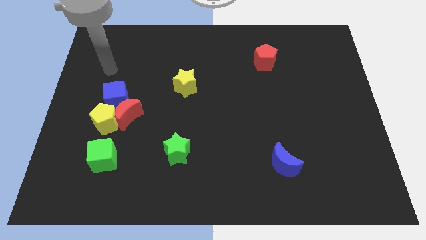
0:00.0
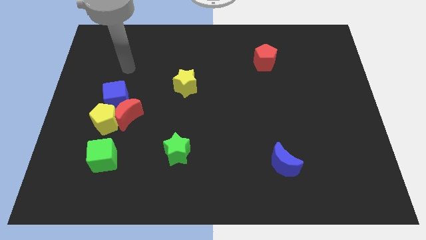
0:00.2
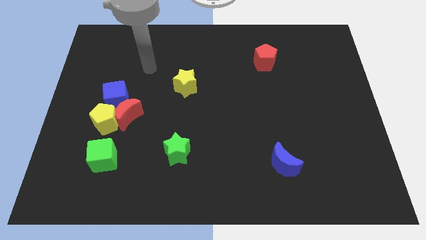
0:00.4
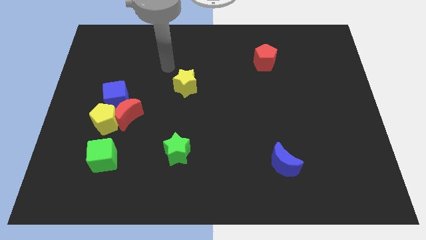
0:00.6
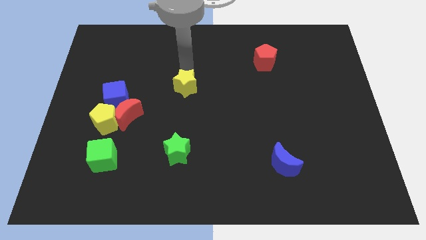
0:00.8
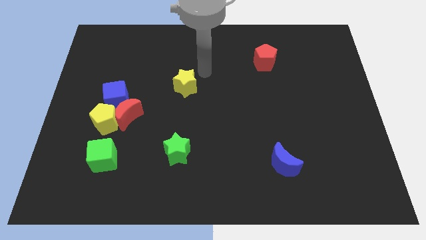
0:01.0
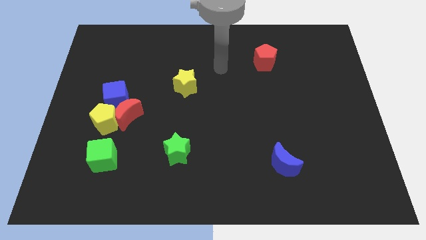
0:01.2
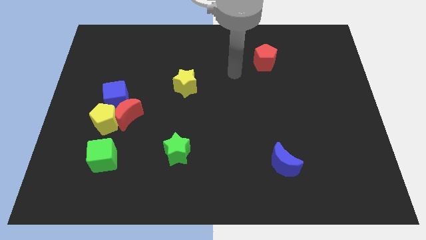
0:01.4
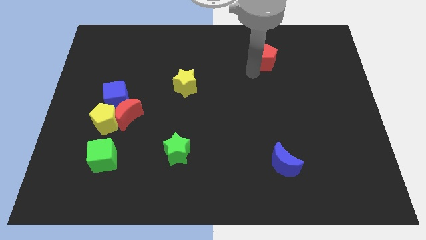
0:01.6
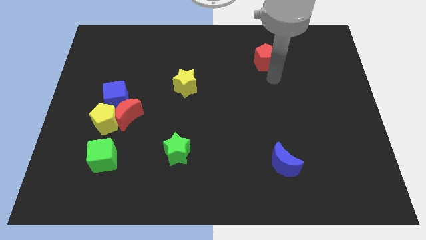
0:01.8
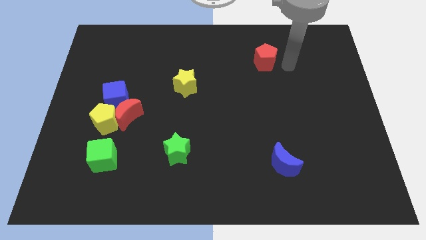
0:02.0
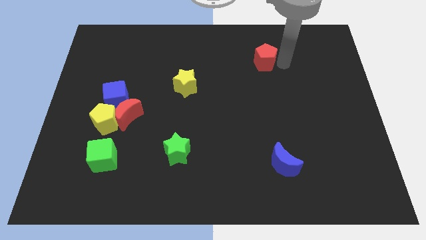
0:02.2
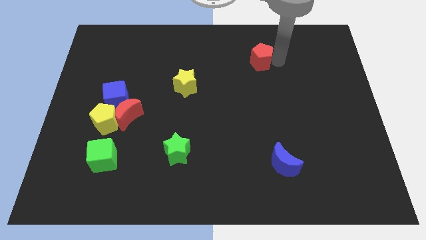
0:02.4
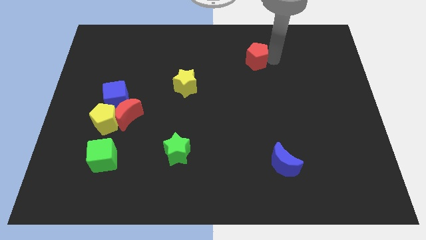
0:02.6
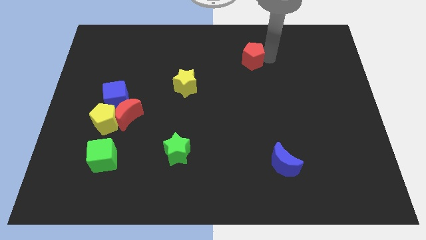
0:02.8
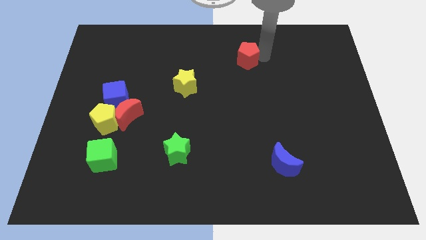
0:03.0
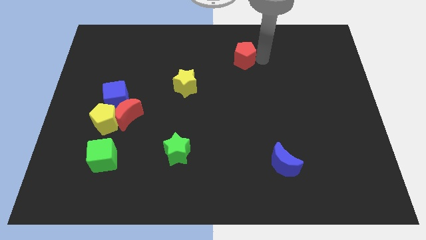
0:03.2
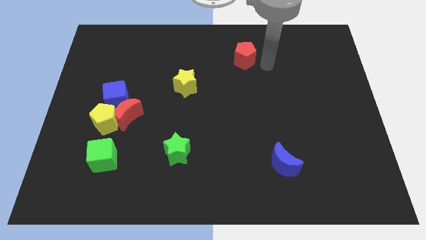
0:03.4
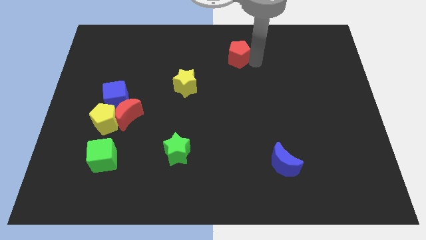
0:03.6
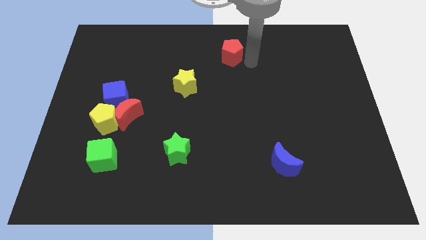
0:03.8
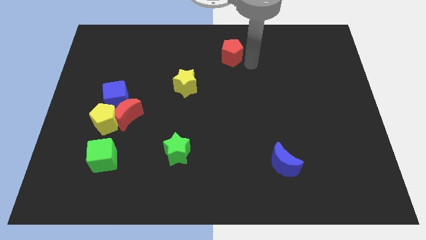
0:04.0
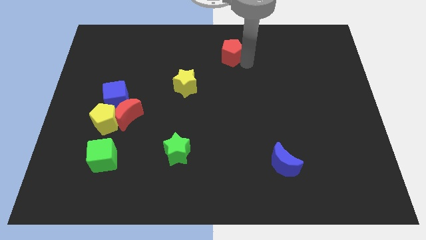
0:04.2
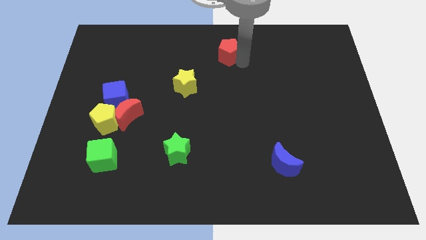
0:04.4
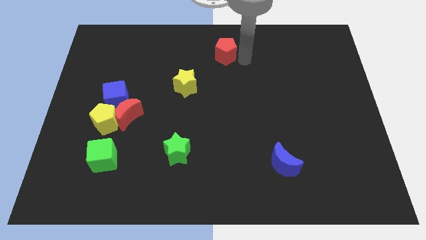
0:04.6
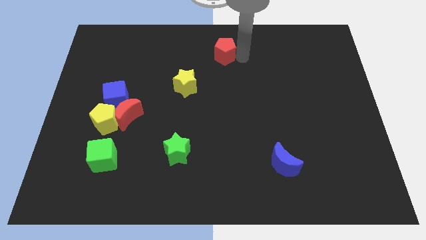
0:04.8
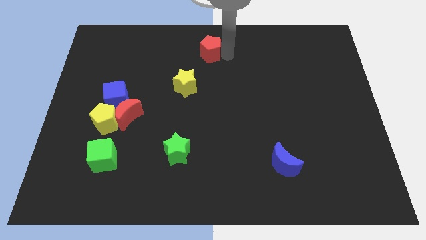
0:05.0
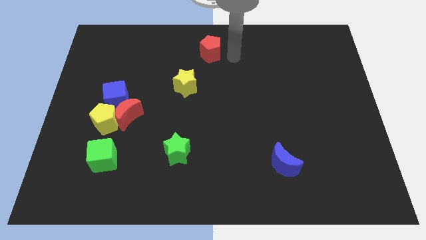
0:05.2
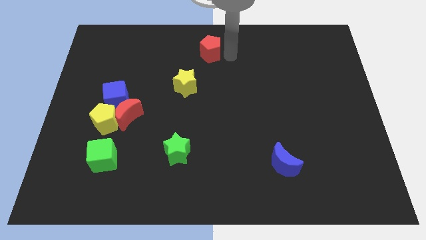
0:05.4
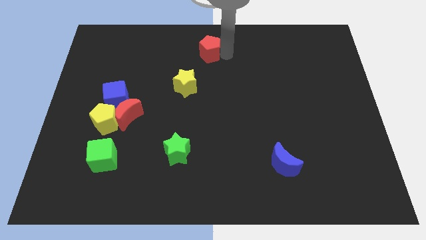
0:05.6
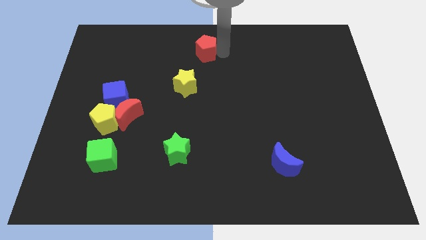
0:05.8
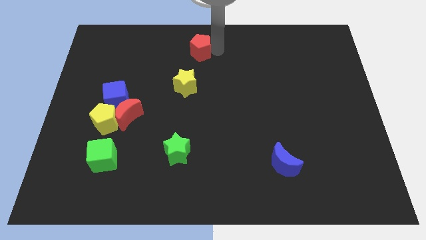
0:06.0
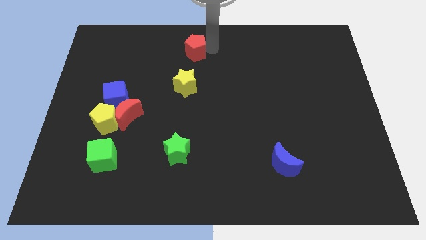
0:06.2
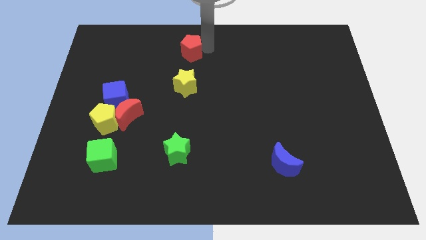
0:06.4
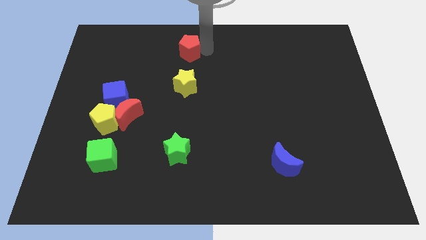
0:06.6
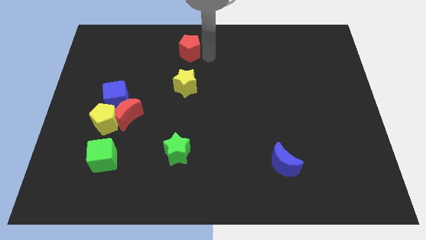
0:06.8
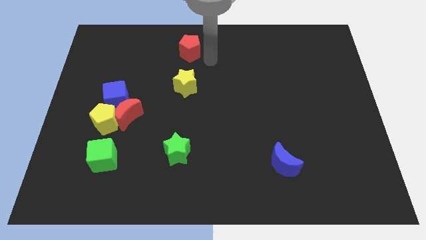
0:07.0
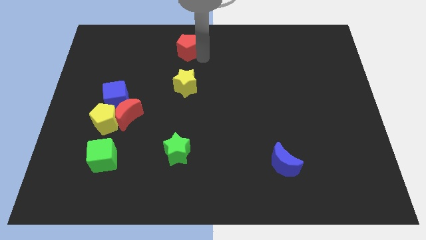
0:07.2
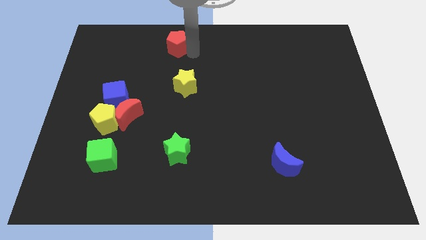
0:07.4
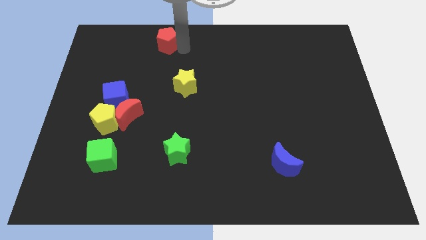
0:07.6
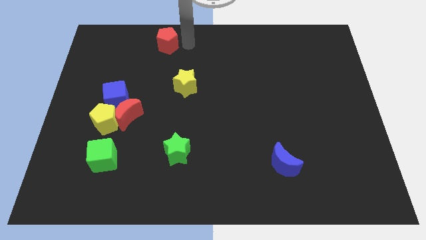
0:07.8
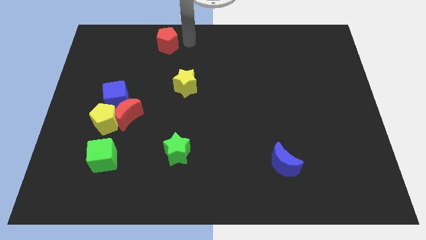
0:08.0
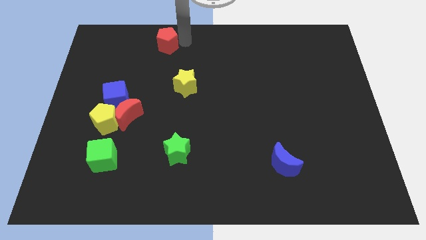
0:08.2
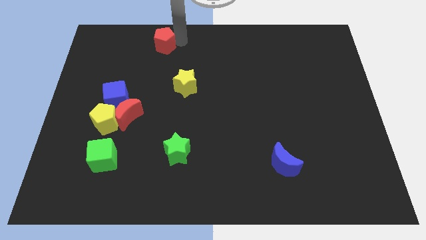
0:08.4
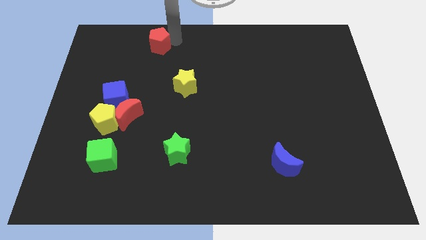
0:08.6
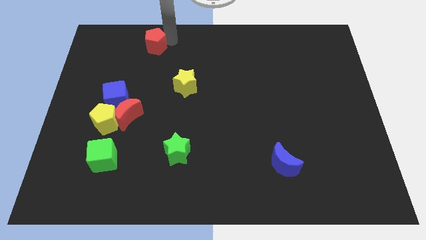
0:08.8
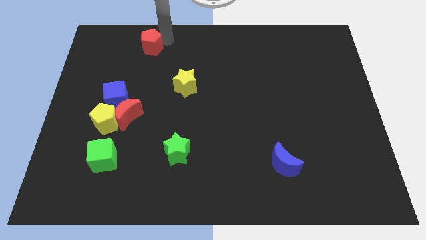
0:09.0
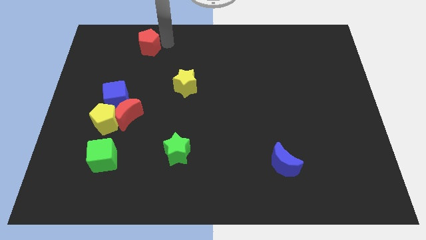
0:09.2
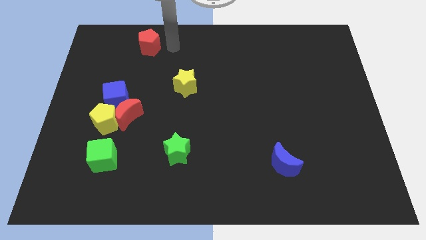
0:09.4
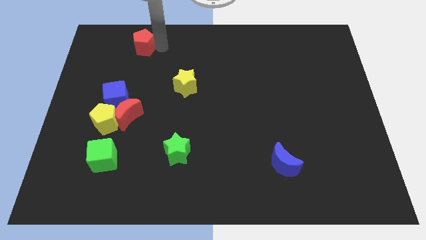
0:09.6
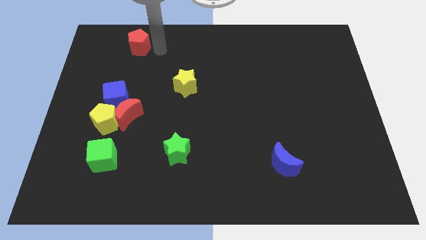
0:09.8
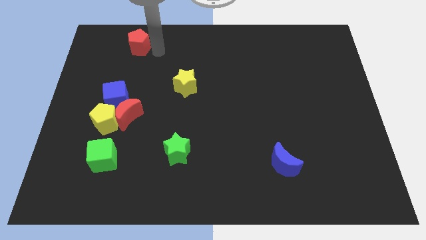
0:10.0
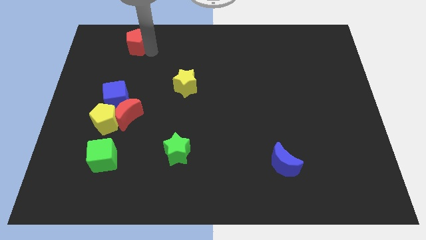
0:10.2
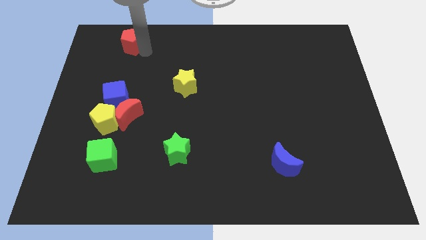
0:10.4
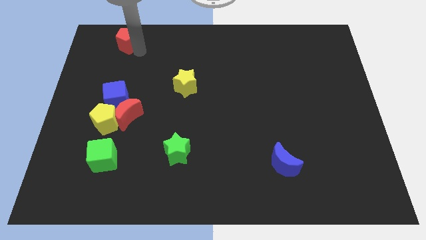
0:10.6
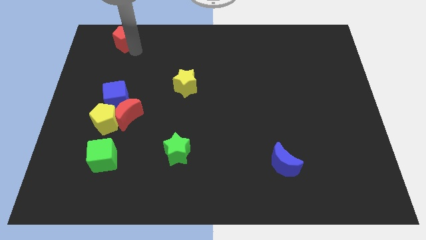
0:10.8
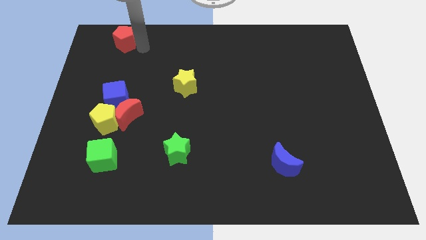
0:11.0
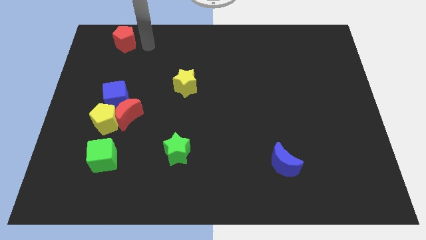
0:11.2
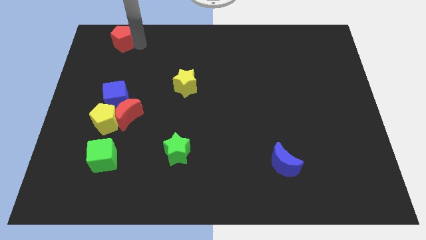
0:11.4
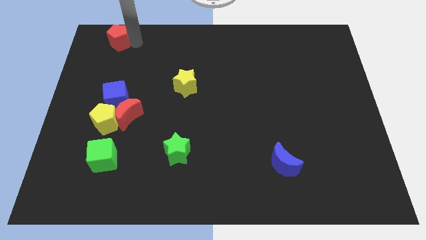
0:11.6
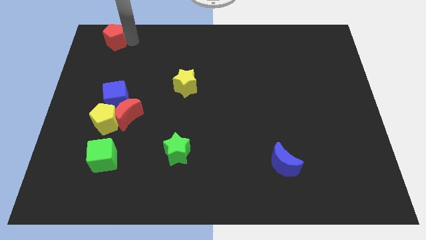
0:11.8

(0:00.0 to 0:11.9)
push the red pentagon to the upper left corner

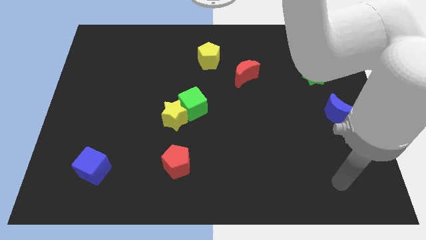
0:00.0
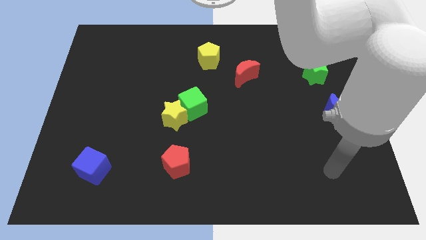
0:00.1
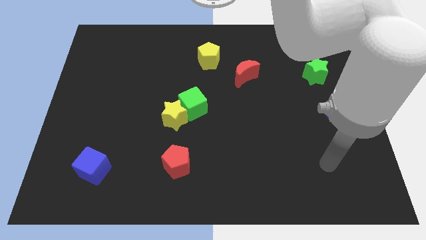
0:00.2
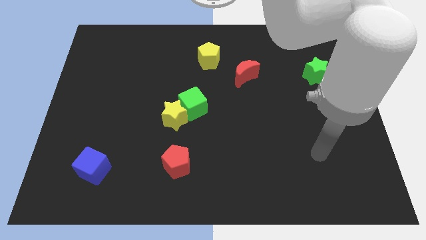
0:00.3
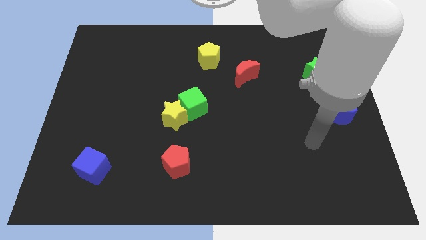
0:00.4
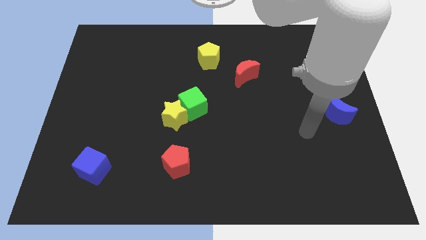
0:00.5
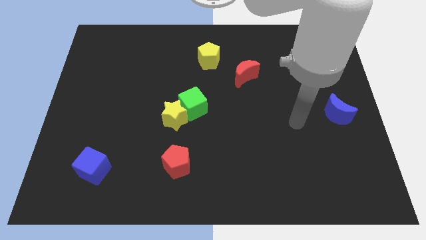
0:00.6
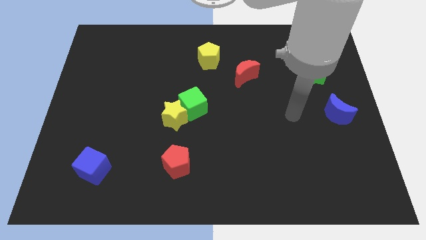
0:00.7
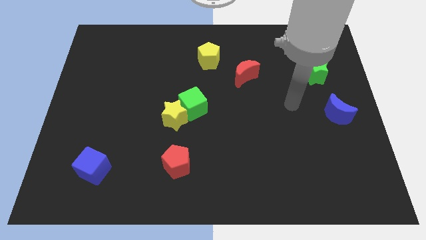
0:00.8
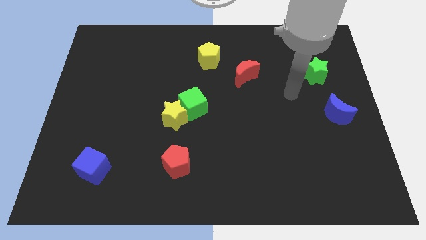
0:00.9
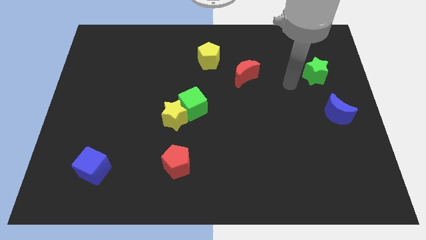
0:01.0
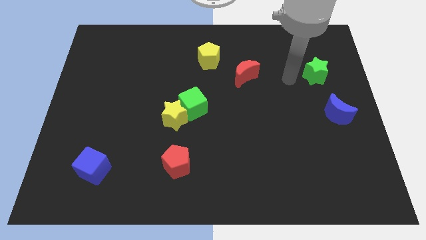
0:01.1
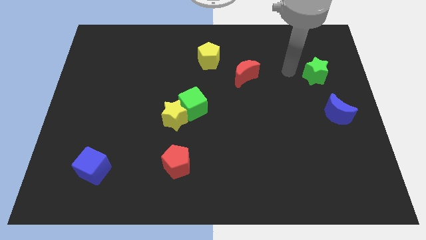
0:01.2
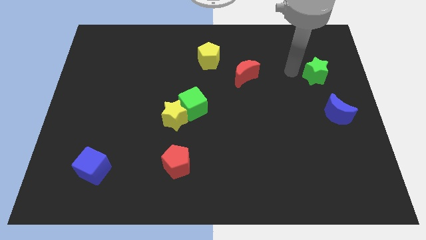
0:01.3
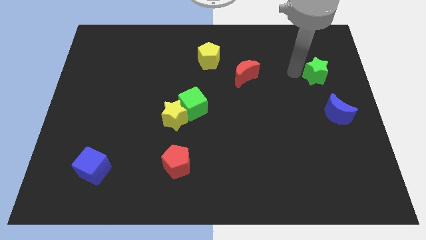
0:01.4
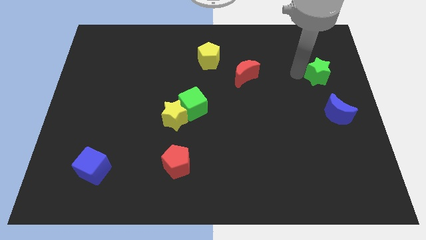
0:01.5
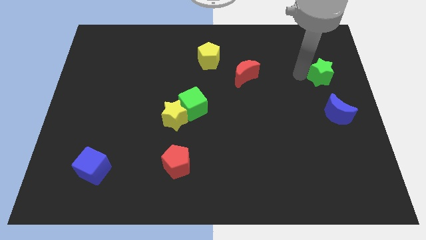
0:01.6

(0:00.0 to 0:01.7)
slide the green star to the right side
